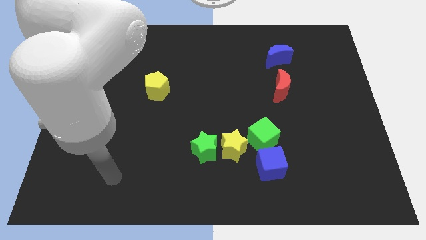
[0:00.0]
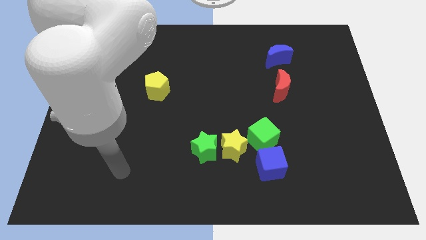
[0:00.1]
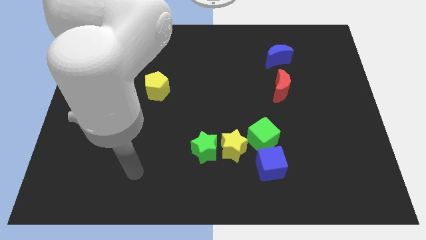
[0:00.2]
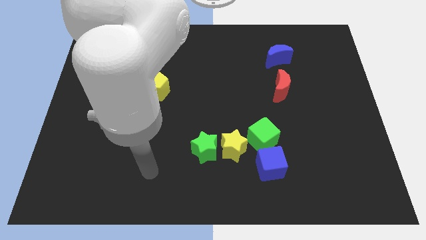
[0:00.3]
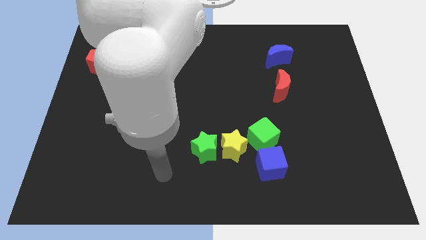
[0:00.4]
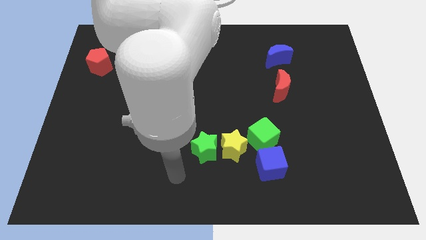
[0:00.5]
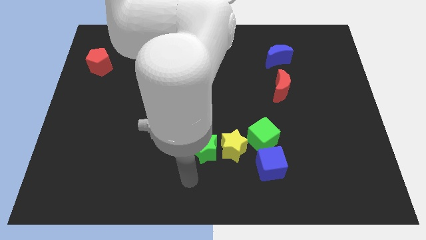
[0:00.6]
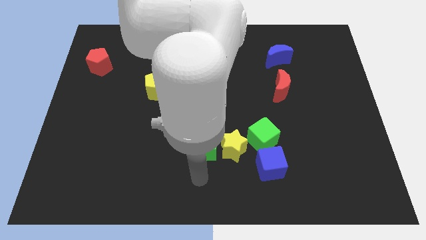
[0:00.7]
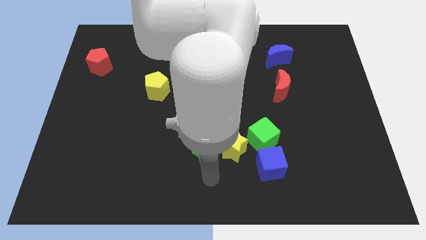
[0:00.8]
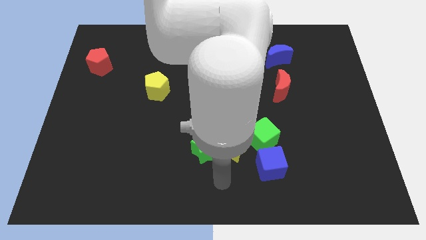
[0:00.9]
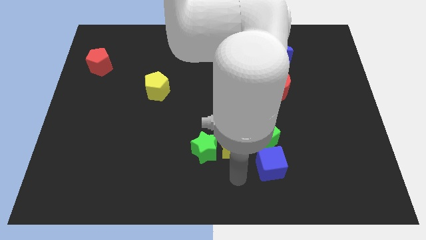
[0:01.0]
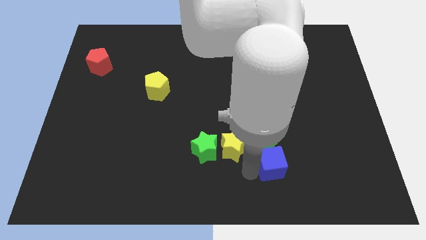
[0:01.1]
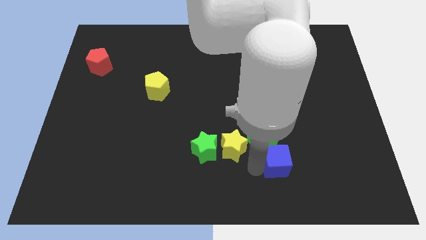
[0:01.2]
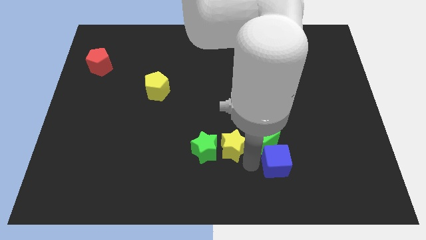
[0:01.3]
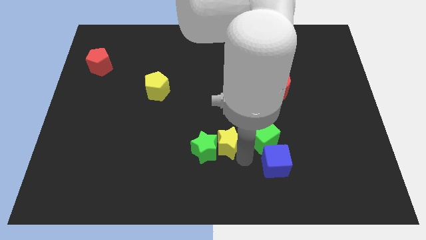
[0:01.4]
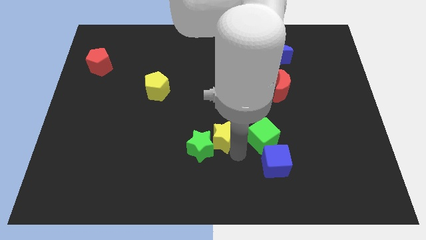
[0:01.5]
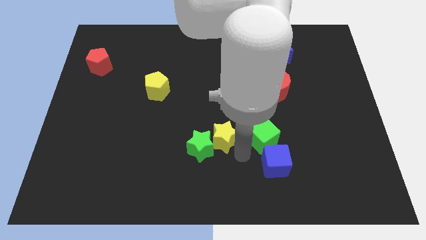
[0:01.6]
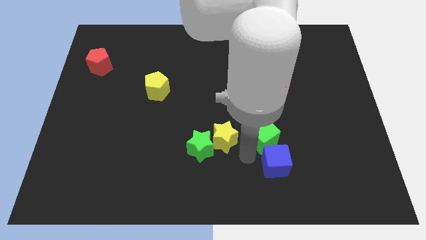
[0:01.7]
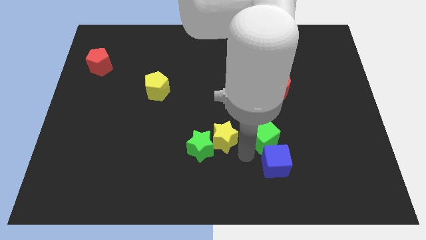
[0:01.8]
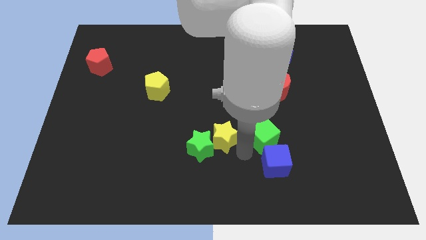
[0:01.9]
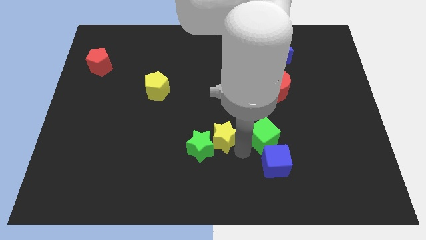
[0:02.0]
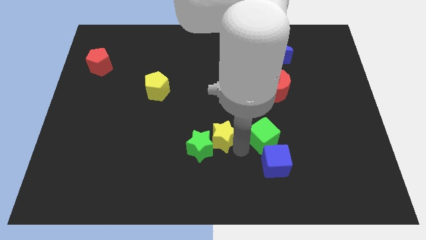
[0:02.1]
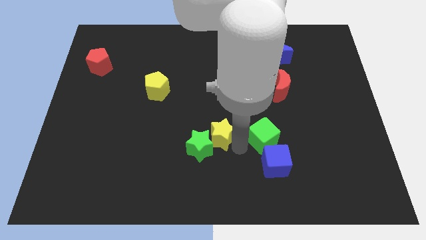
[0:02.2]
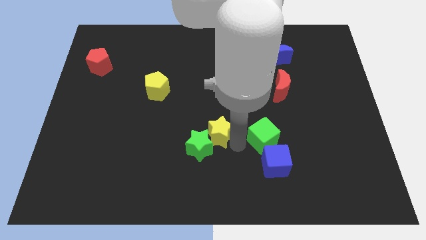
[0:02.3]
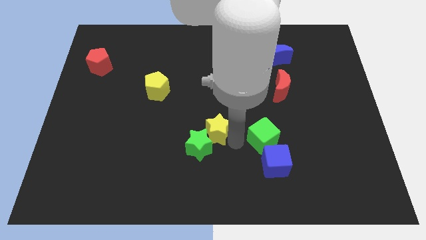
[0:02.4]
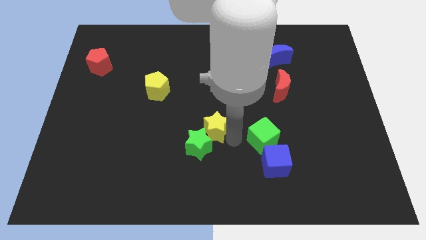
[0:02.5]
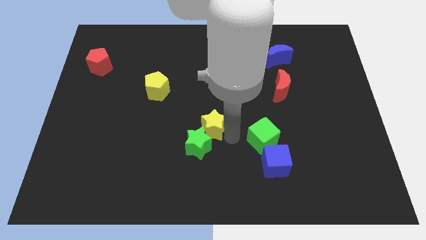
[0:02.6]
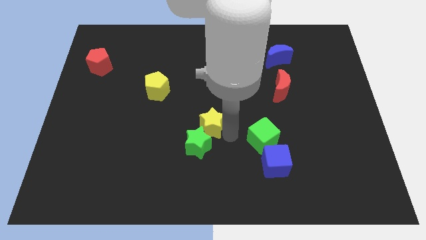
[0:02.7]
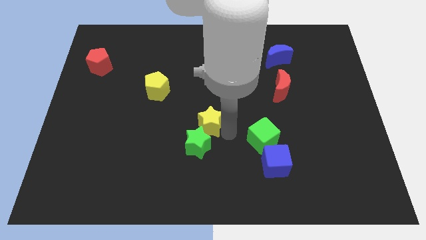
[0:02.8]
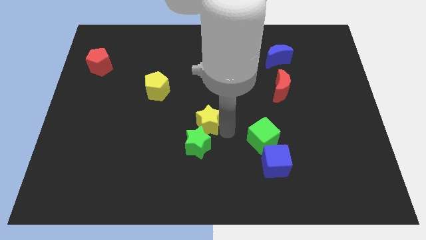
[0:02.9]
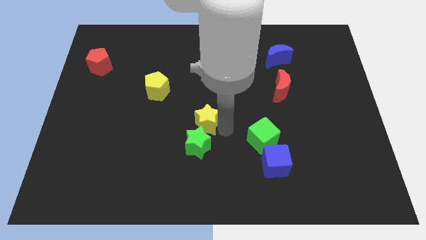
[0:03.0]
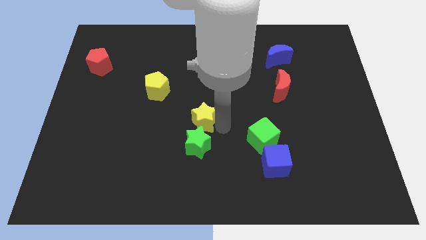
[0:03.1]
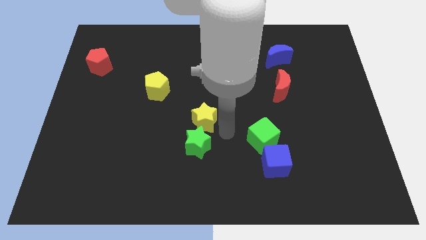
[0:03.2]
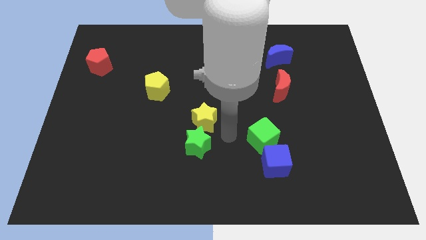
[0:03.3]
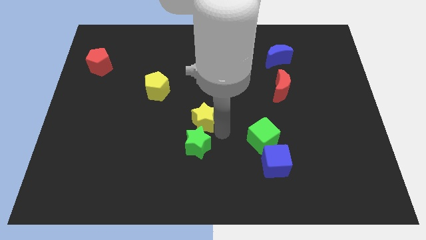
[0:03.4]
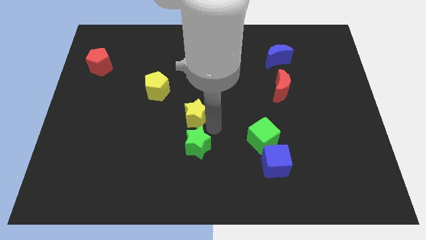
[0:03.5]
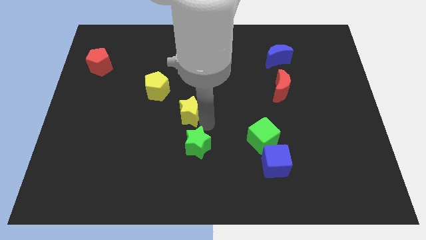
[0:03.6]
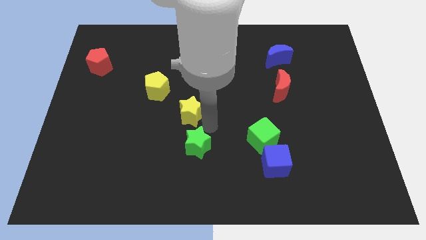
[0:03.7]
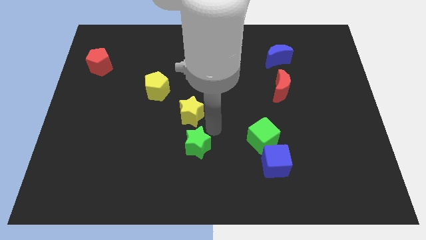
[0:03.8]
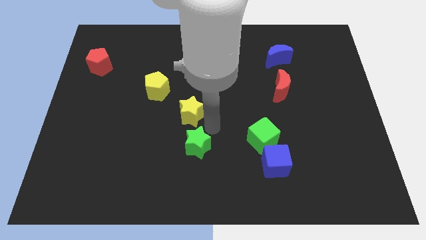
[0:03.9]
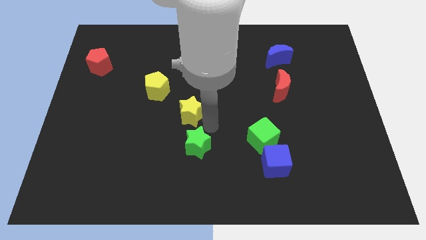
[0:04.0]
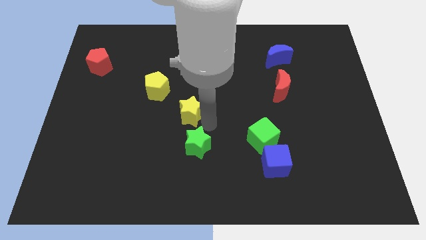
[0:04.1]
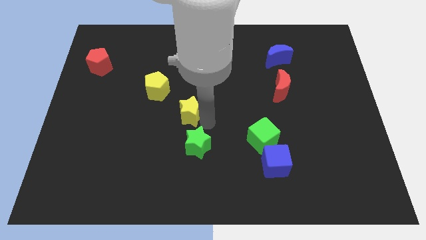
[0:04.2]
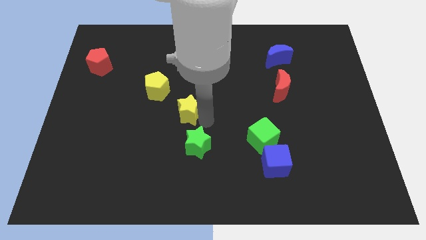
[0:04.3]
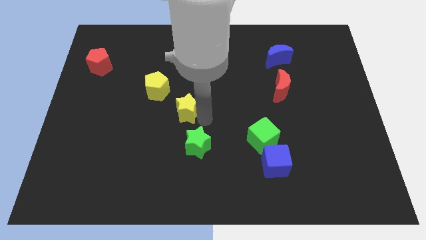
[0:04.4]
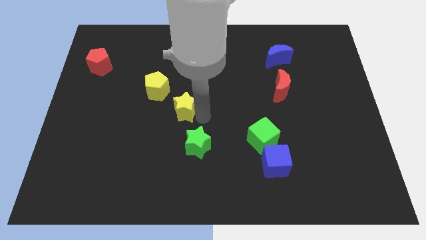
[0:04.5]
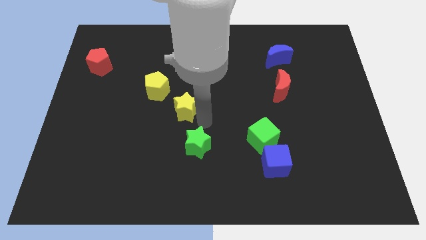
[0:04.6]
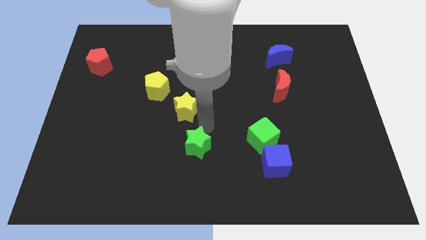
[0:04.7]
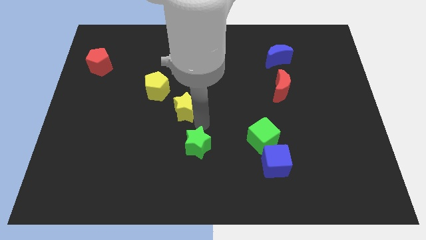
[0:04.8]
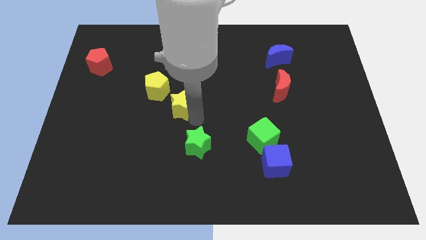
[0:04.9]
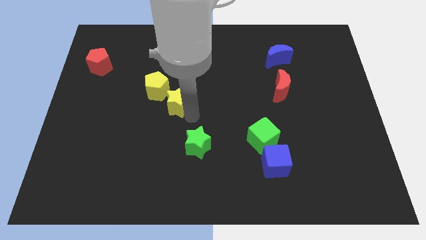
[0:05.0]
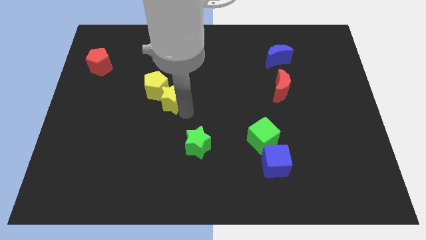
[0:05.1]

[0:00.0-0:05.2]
slide the yellow star close to the yellow pentagon

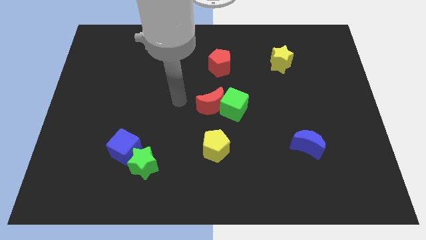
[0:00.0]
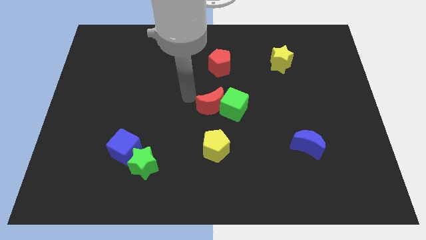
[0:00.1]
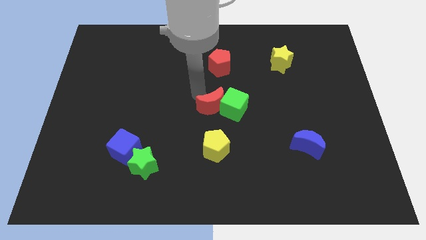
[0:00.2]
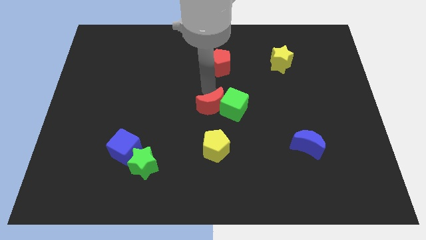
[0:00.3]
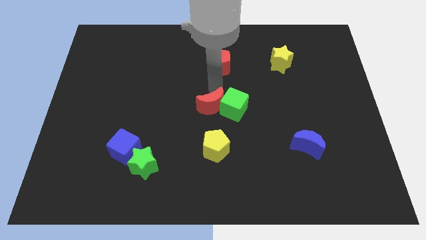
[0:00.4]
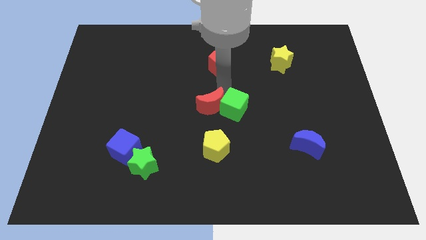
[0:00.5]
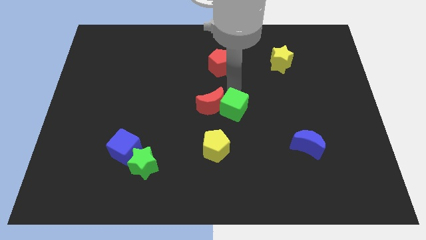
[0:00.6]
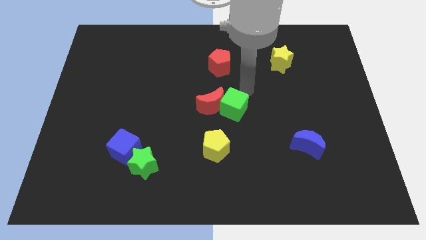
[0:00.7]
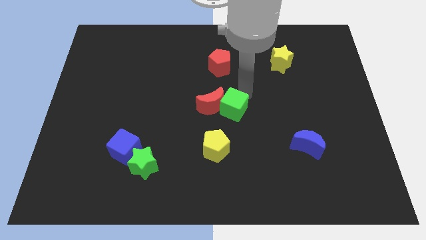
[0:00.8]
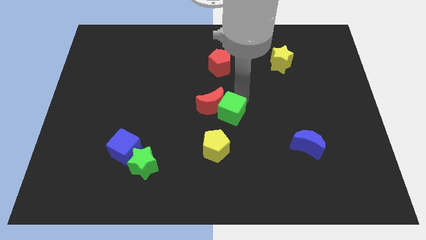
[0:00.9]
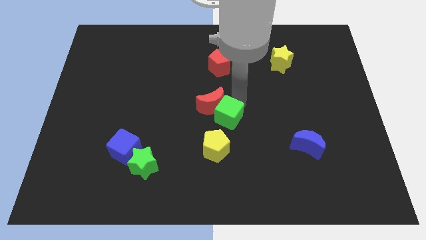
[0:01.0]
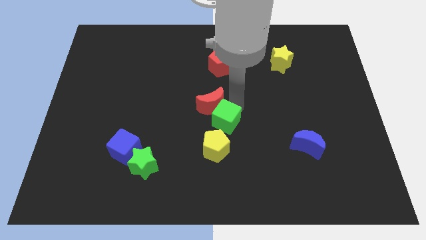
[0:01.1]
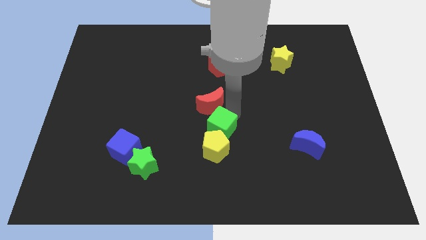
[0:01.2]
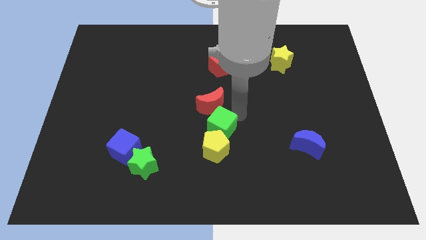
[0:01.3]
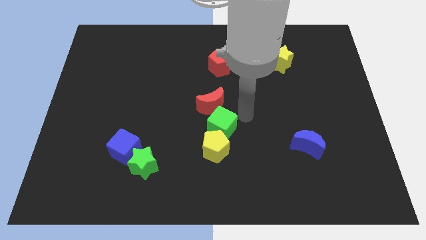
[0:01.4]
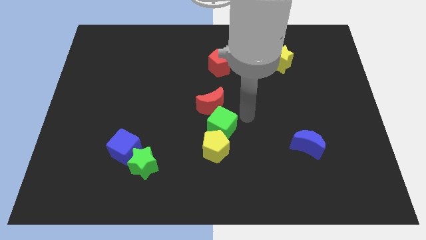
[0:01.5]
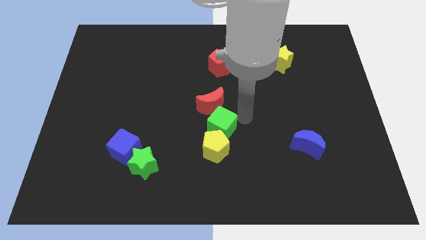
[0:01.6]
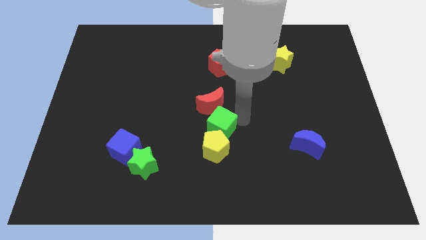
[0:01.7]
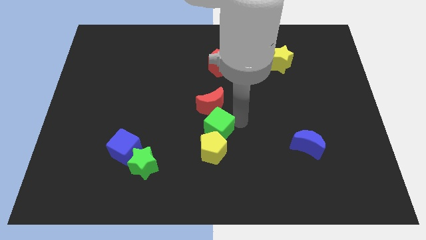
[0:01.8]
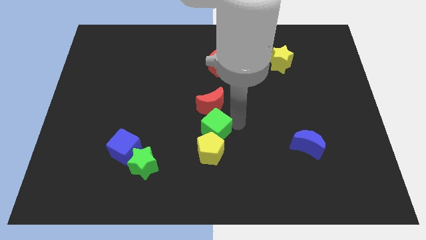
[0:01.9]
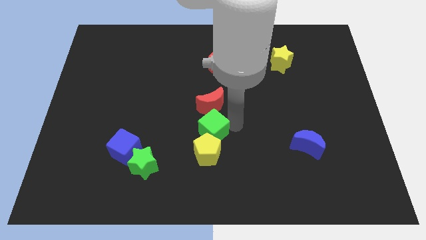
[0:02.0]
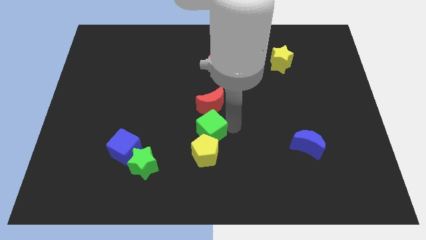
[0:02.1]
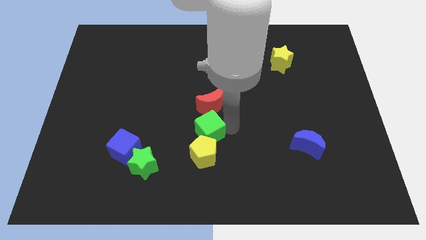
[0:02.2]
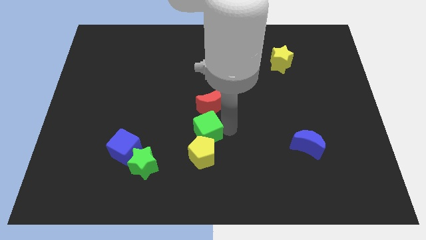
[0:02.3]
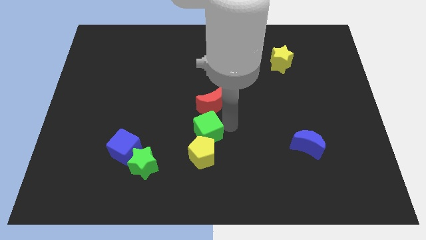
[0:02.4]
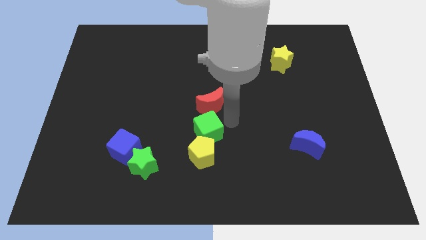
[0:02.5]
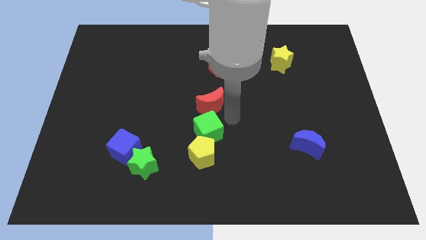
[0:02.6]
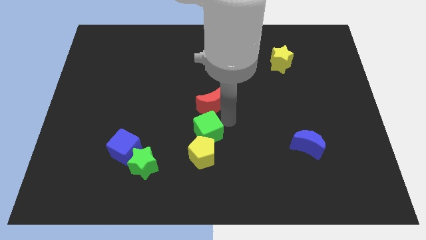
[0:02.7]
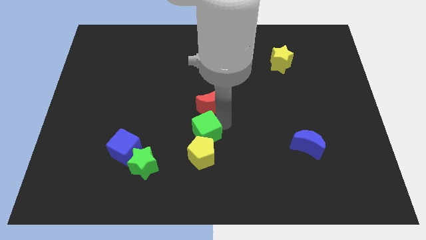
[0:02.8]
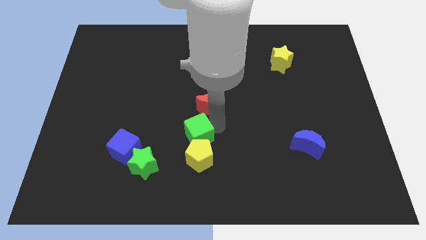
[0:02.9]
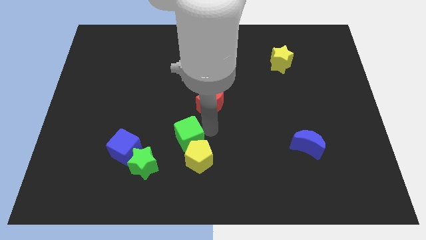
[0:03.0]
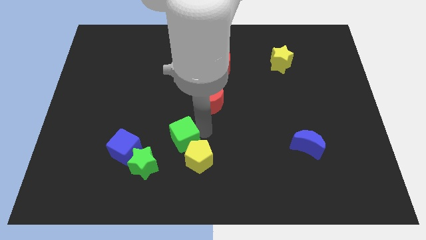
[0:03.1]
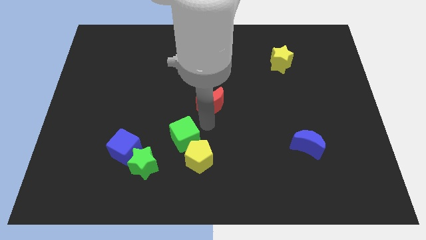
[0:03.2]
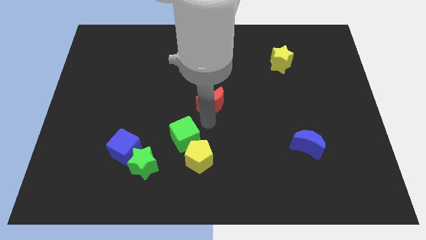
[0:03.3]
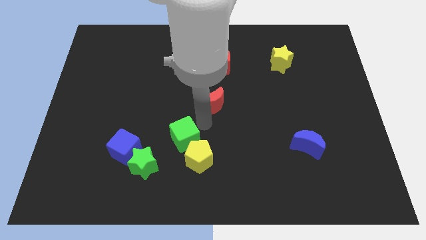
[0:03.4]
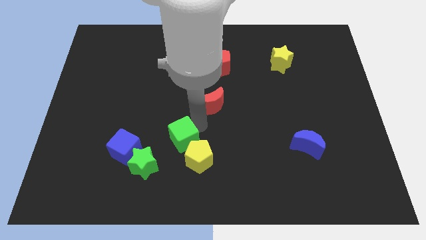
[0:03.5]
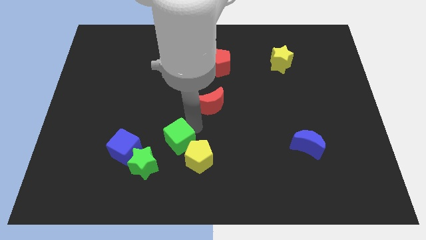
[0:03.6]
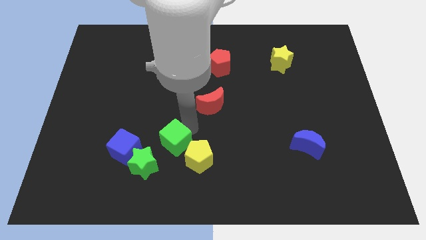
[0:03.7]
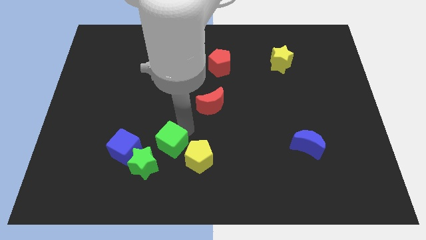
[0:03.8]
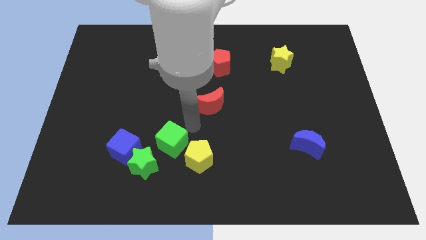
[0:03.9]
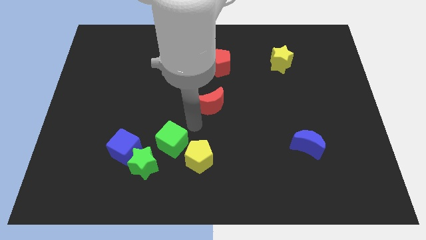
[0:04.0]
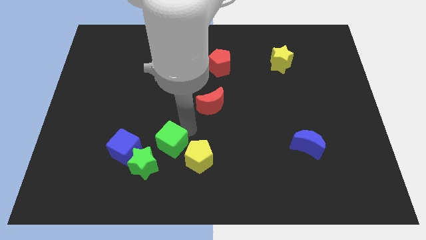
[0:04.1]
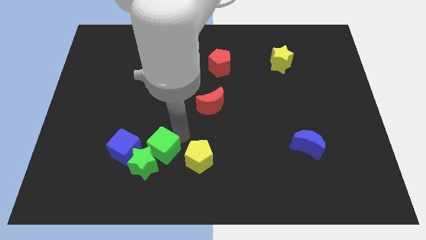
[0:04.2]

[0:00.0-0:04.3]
slide the green cube to the green star
